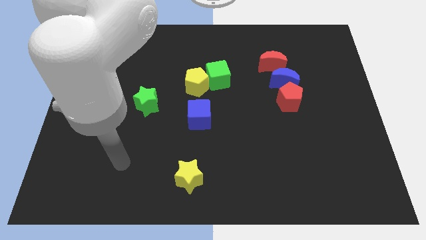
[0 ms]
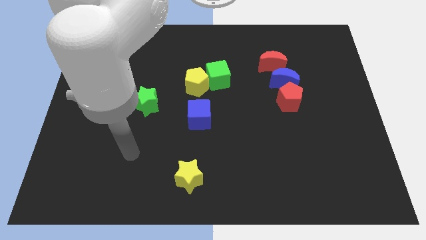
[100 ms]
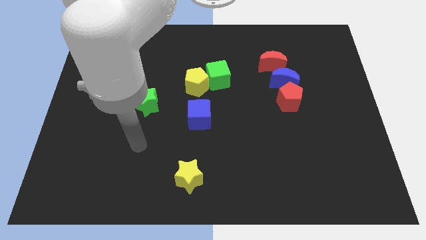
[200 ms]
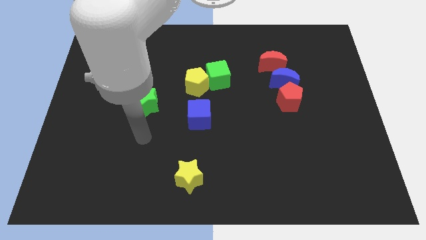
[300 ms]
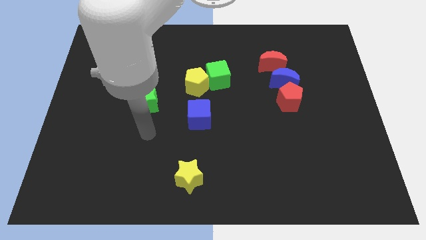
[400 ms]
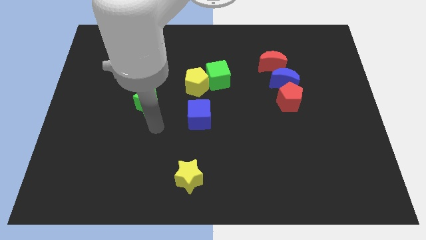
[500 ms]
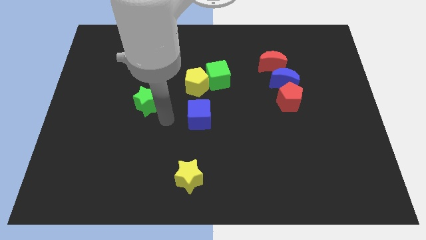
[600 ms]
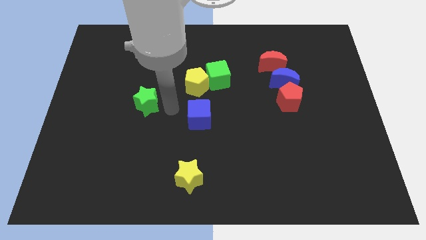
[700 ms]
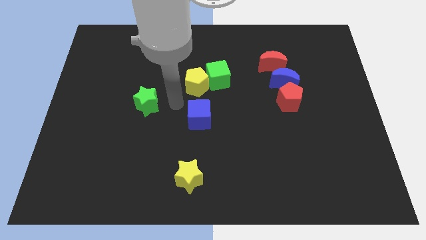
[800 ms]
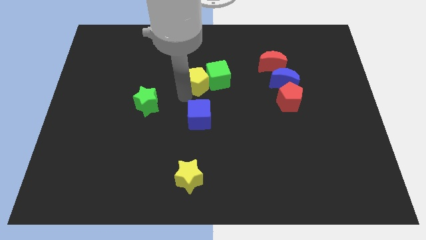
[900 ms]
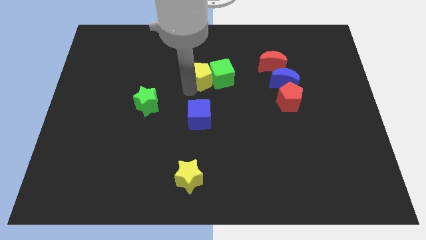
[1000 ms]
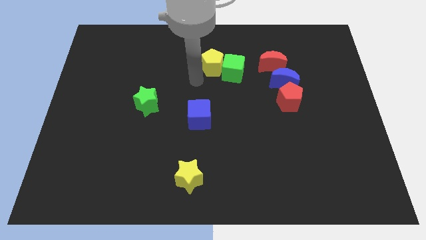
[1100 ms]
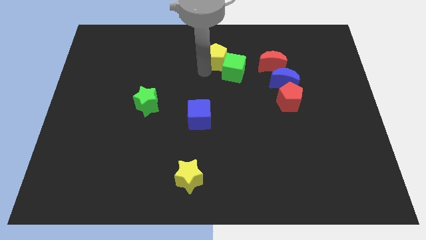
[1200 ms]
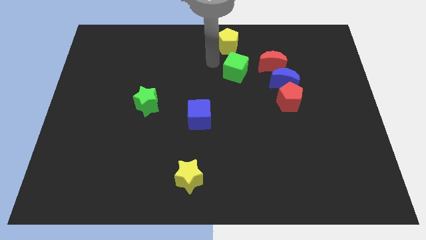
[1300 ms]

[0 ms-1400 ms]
move the green cube away from the yellow pentagon

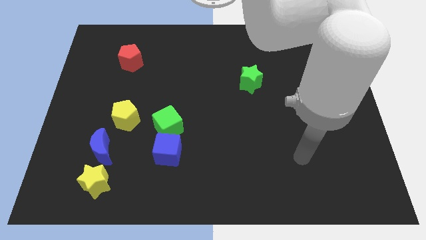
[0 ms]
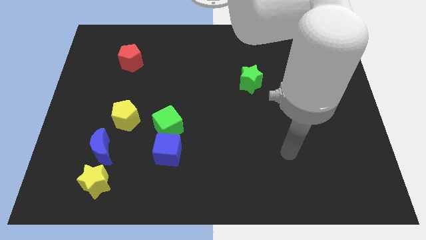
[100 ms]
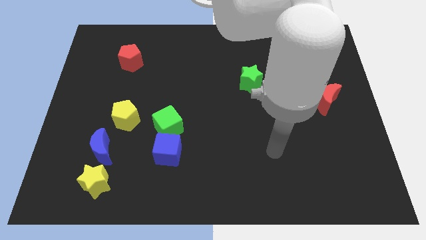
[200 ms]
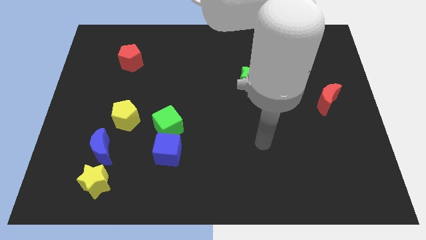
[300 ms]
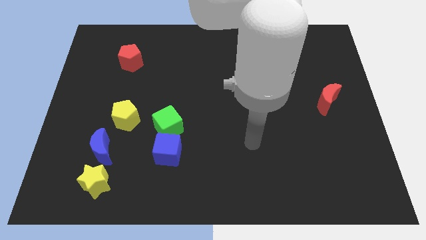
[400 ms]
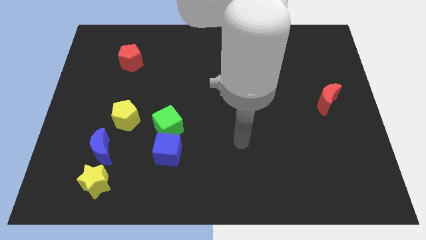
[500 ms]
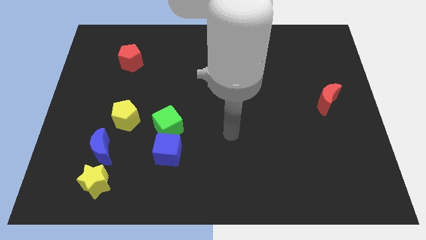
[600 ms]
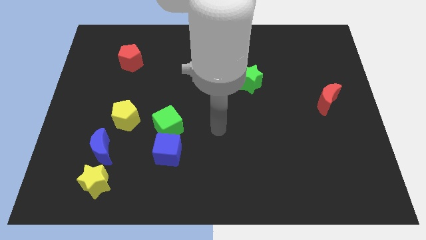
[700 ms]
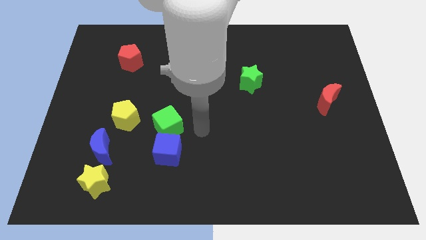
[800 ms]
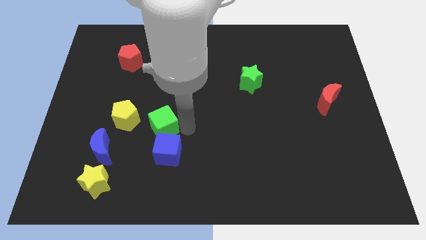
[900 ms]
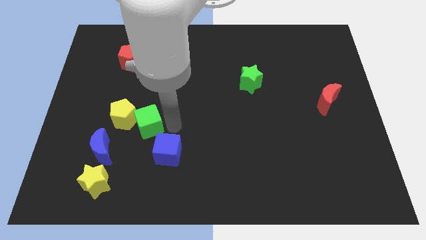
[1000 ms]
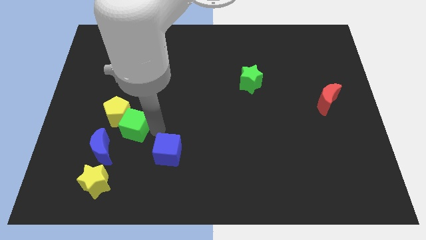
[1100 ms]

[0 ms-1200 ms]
pull the blue cube apart from the green cube

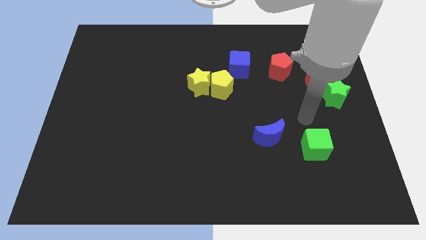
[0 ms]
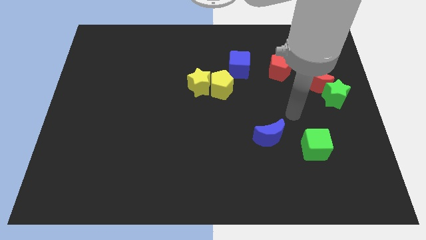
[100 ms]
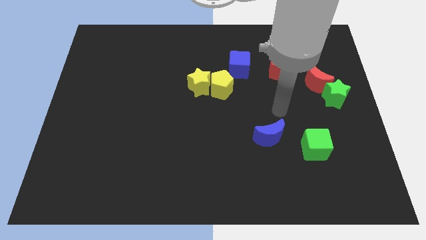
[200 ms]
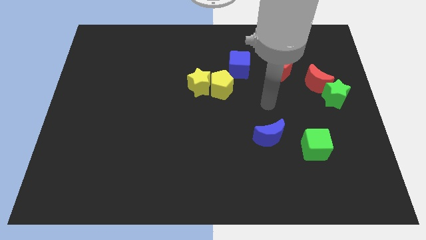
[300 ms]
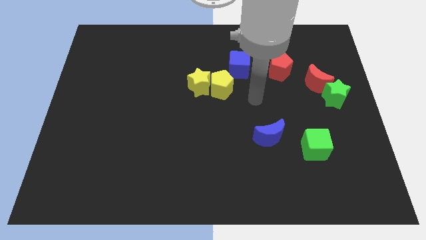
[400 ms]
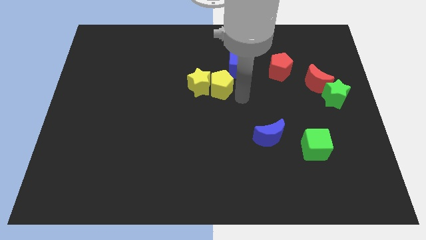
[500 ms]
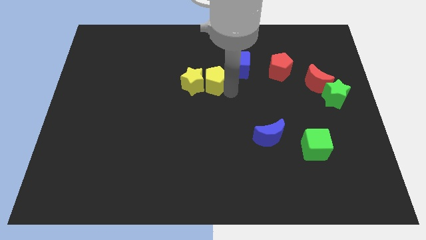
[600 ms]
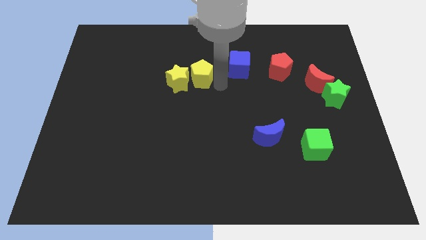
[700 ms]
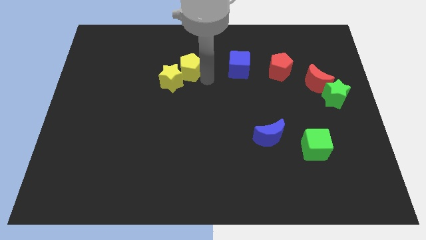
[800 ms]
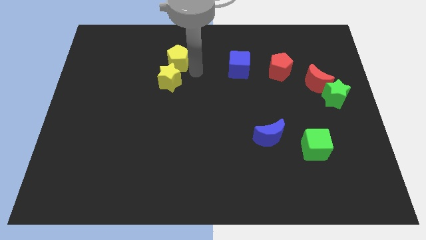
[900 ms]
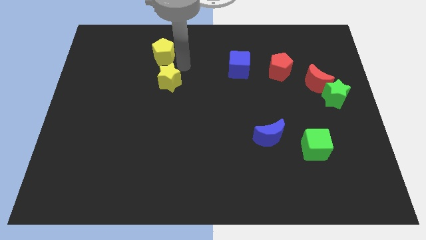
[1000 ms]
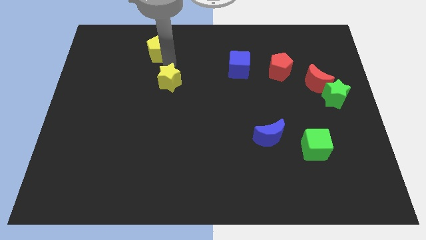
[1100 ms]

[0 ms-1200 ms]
pull the yellow star apart from the yellow pentagon

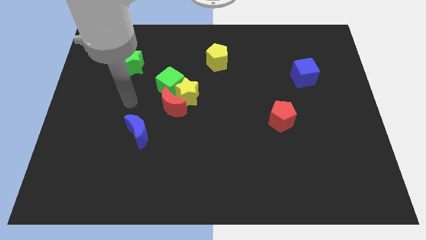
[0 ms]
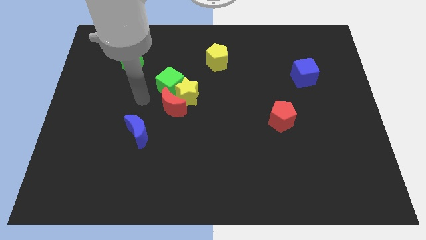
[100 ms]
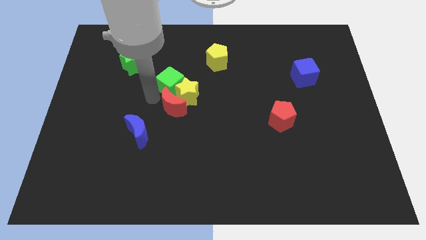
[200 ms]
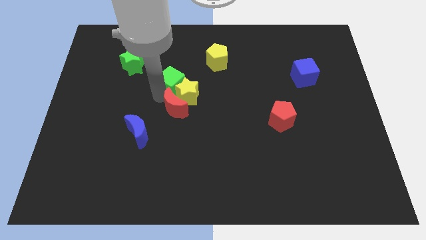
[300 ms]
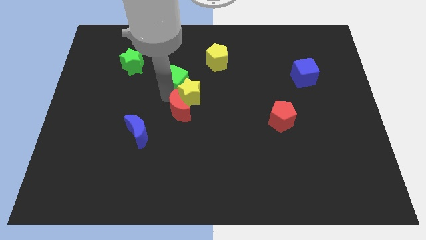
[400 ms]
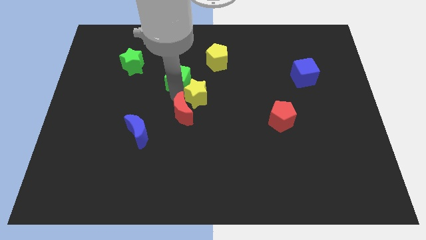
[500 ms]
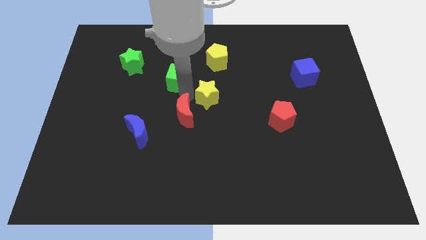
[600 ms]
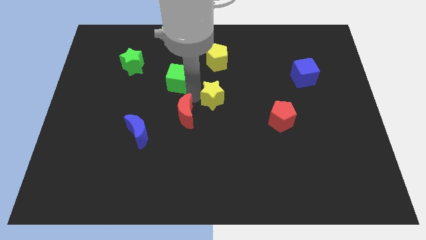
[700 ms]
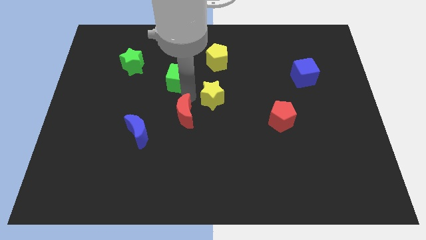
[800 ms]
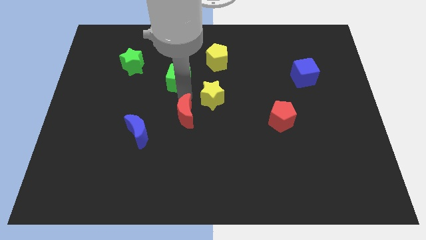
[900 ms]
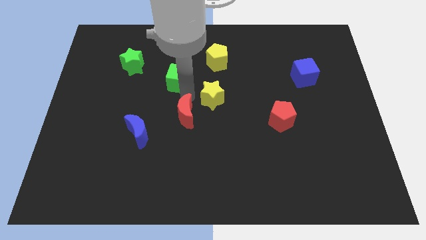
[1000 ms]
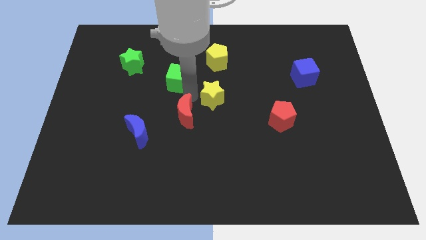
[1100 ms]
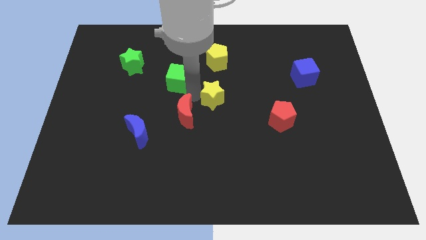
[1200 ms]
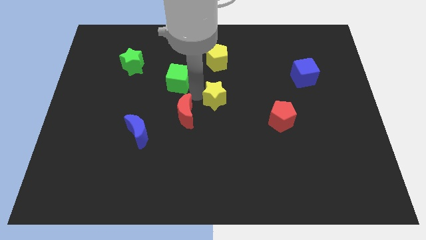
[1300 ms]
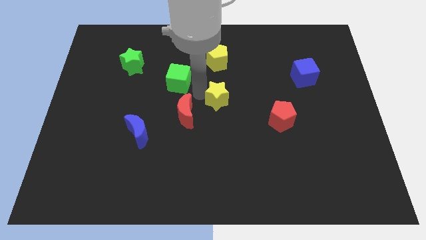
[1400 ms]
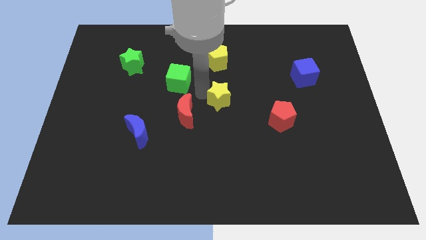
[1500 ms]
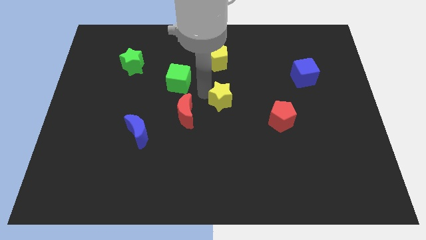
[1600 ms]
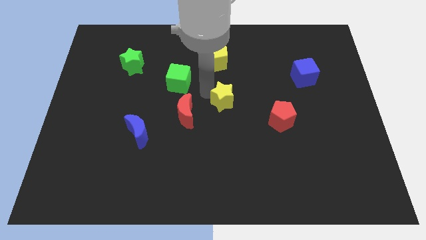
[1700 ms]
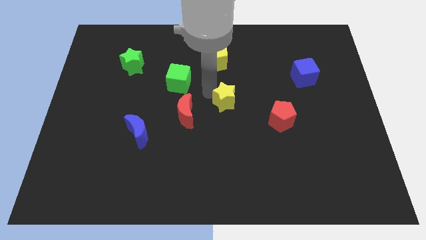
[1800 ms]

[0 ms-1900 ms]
move the yellow star away from the red moon and green cube

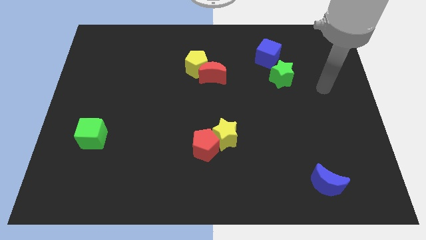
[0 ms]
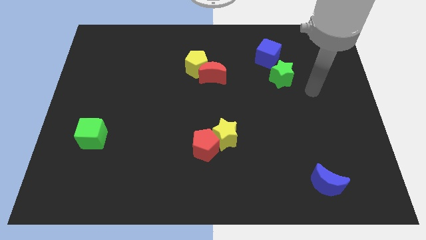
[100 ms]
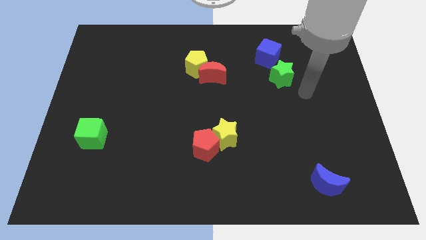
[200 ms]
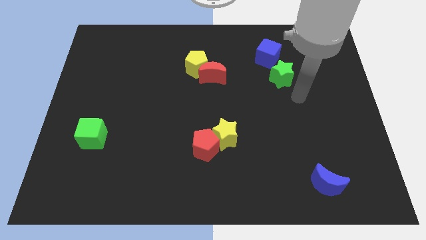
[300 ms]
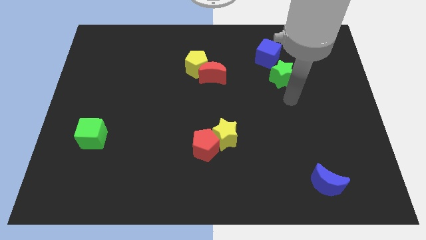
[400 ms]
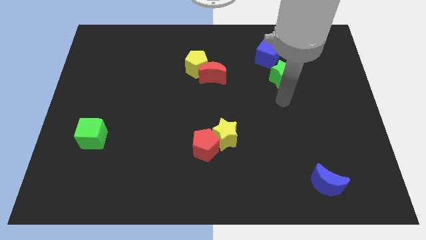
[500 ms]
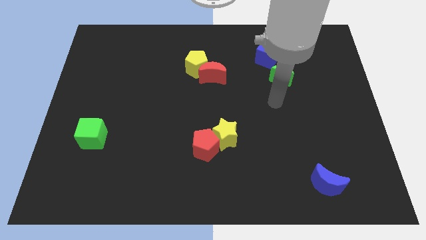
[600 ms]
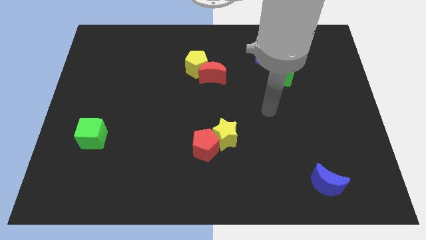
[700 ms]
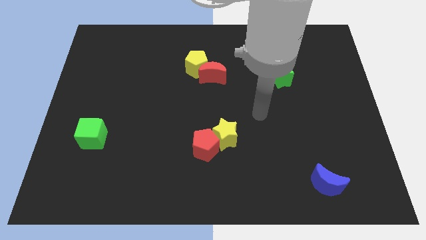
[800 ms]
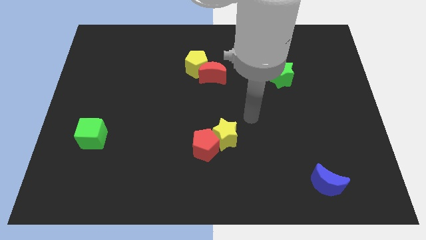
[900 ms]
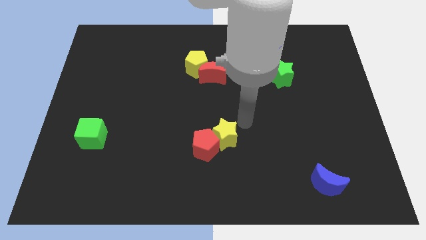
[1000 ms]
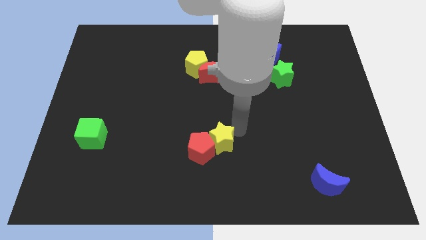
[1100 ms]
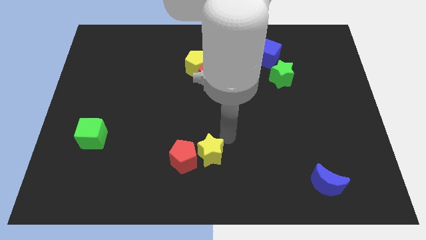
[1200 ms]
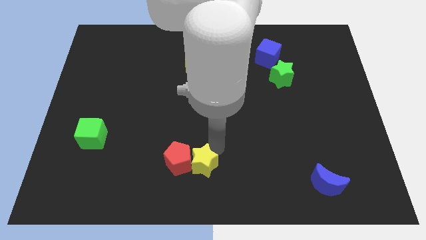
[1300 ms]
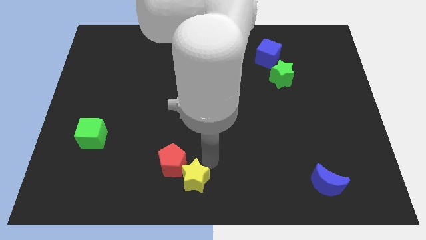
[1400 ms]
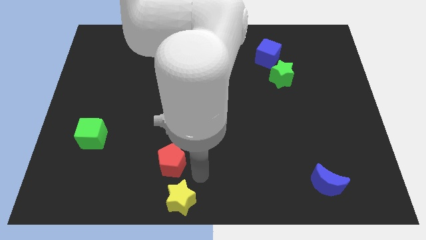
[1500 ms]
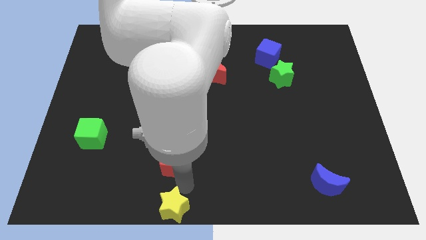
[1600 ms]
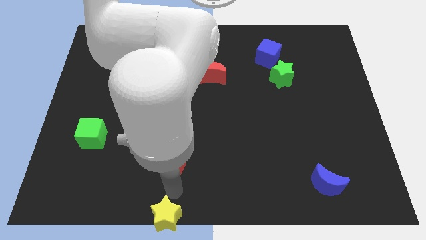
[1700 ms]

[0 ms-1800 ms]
move the red pentagon away from the yellow star

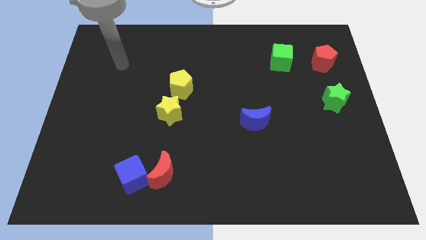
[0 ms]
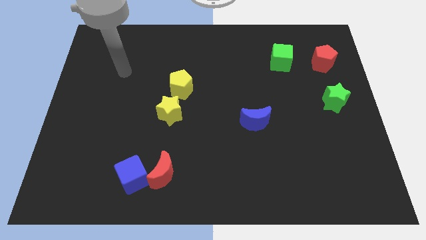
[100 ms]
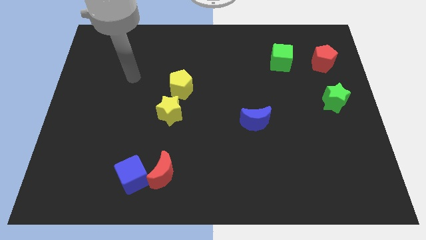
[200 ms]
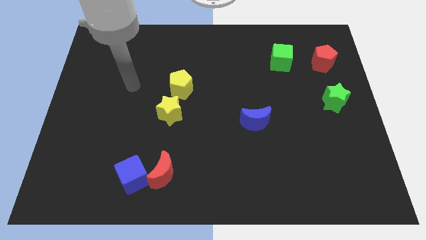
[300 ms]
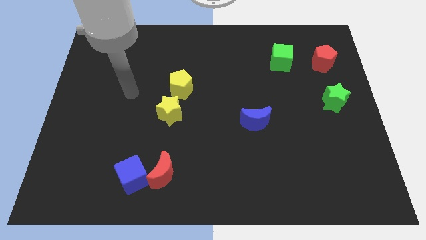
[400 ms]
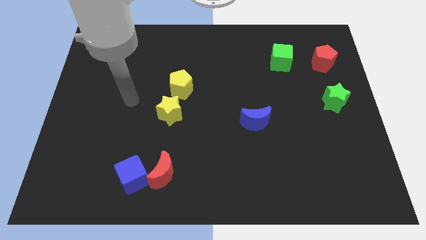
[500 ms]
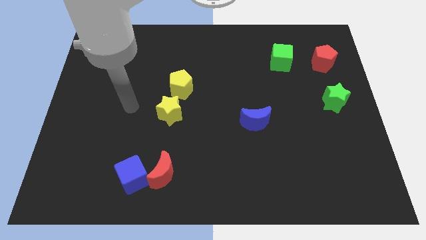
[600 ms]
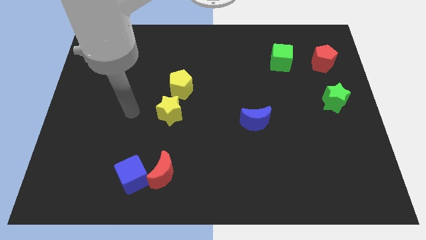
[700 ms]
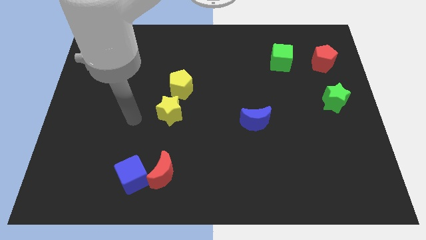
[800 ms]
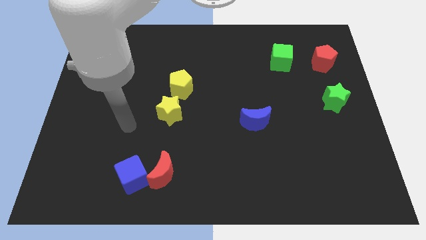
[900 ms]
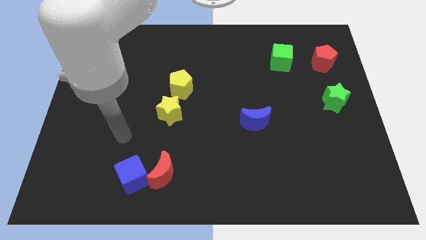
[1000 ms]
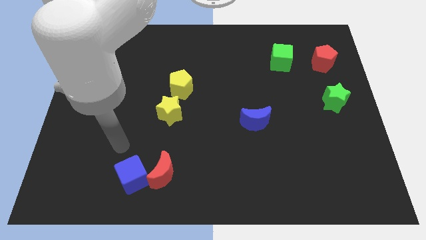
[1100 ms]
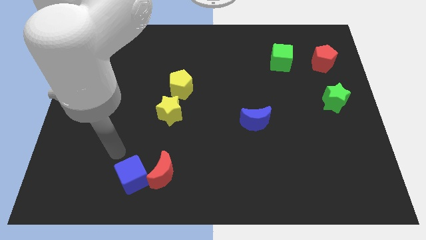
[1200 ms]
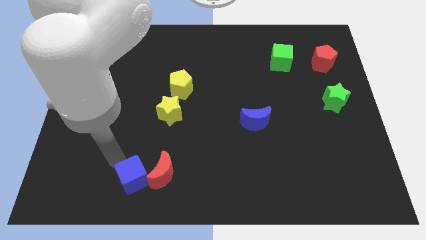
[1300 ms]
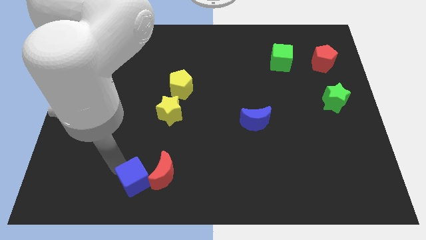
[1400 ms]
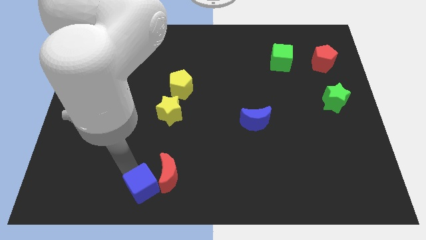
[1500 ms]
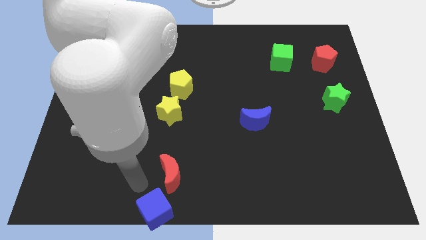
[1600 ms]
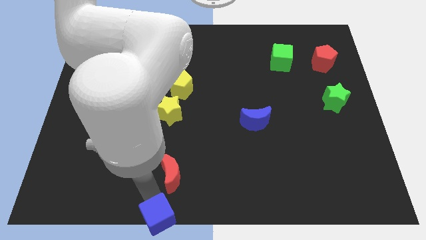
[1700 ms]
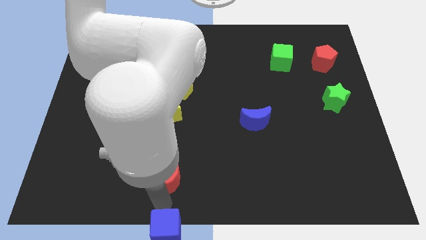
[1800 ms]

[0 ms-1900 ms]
separate the red moon from the blue cube
